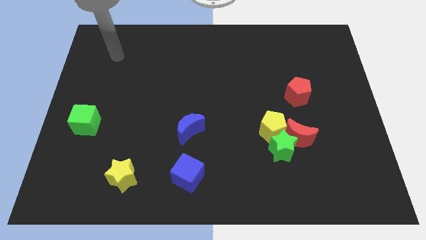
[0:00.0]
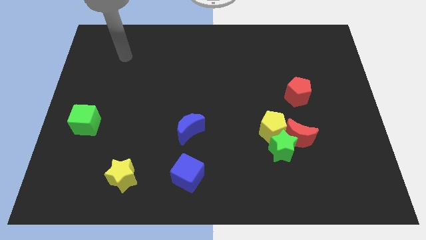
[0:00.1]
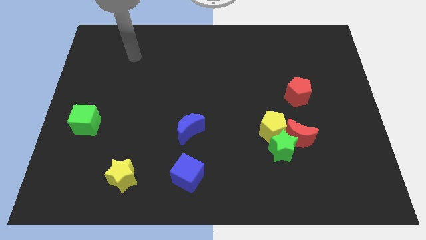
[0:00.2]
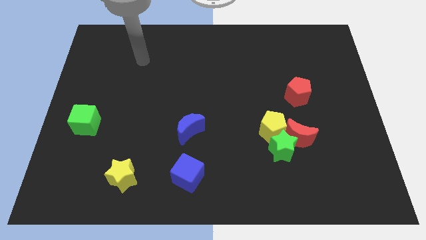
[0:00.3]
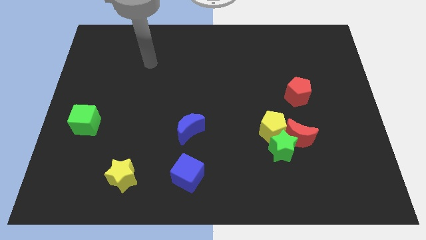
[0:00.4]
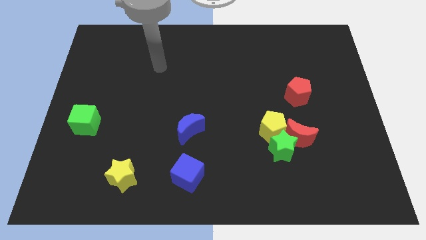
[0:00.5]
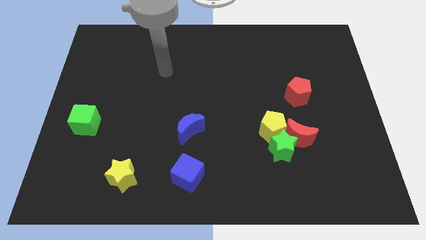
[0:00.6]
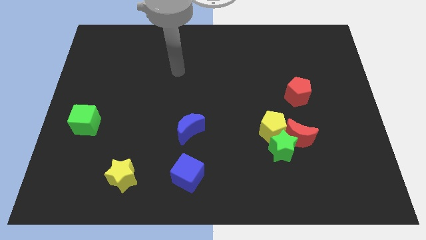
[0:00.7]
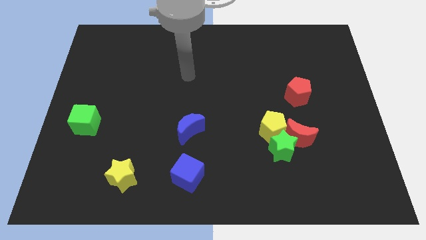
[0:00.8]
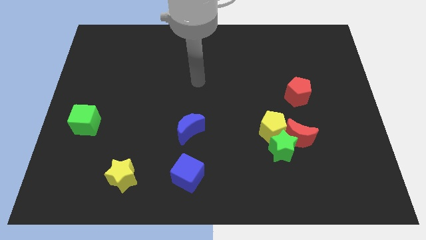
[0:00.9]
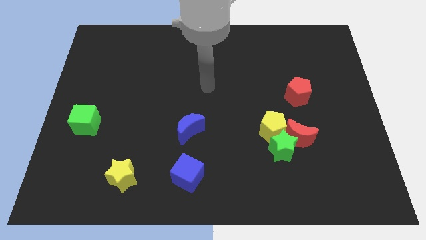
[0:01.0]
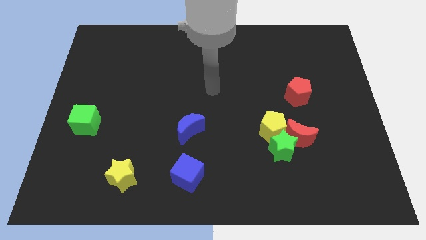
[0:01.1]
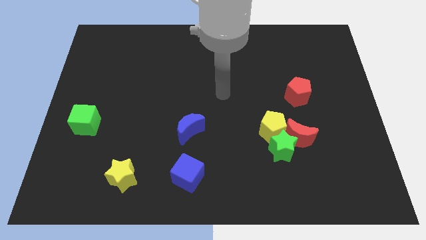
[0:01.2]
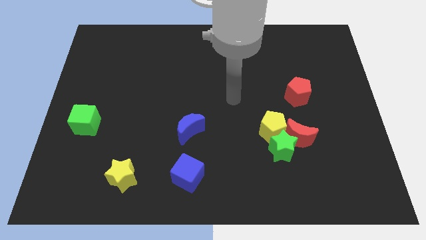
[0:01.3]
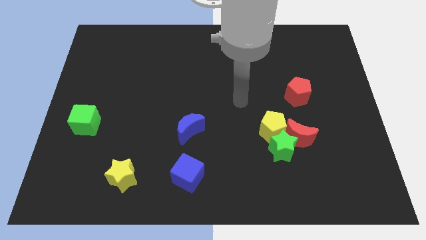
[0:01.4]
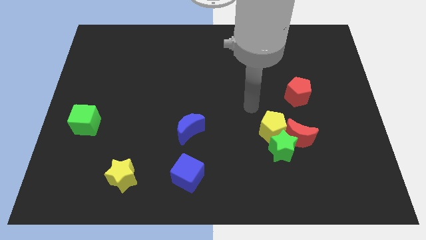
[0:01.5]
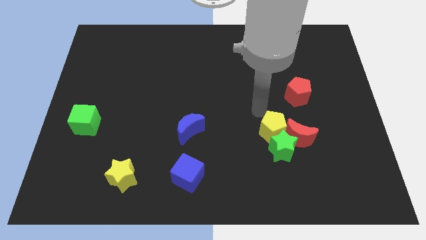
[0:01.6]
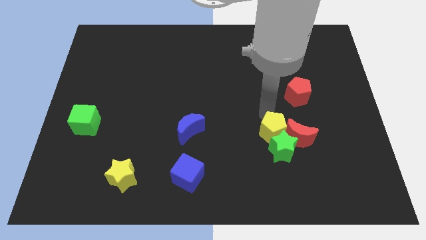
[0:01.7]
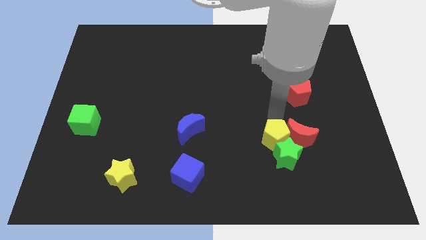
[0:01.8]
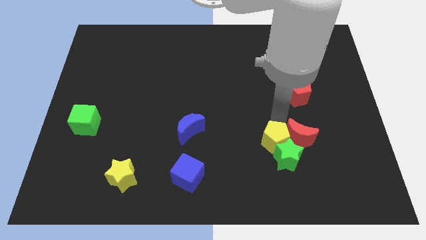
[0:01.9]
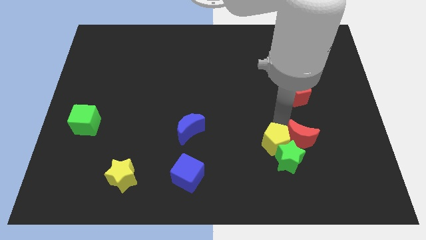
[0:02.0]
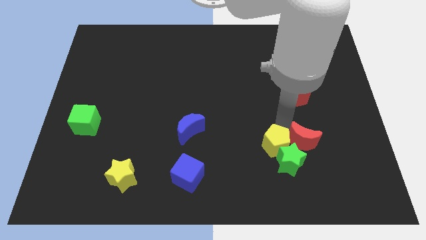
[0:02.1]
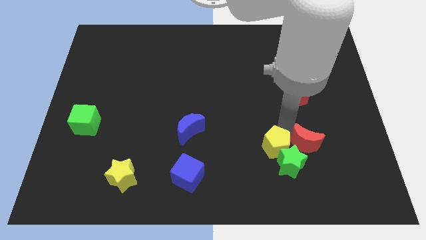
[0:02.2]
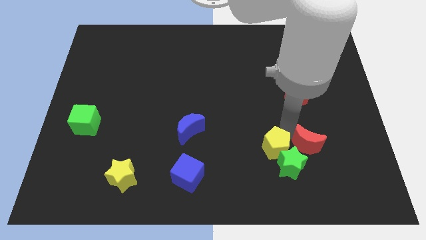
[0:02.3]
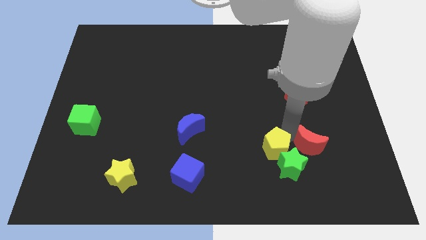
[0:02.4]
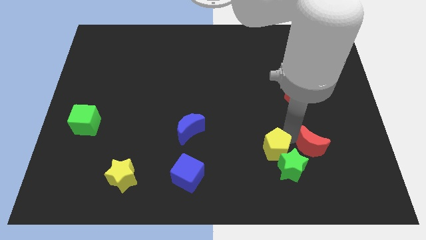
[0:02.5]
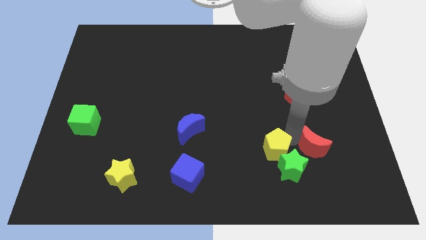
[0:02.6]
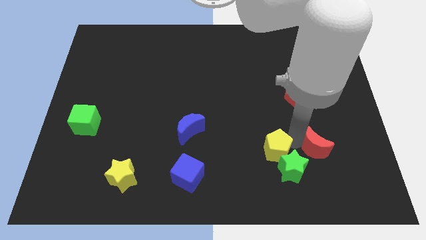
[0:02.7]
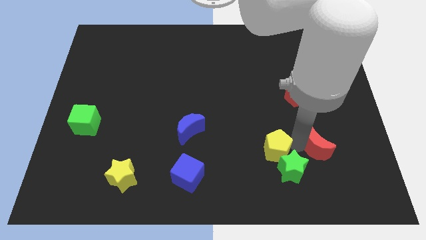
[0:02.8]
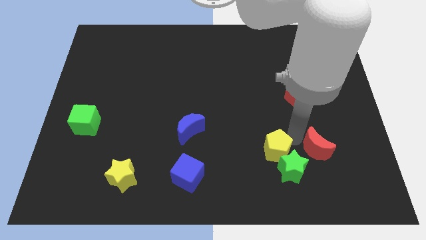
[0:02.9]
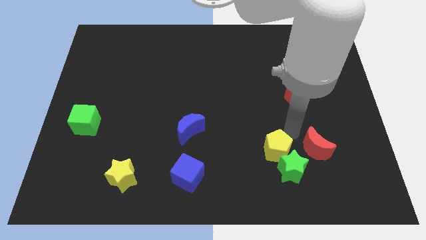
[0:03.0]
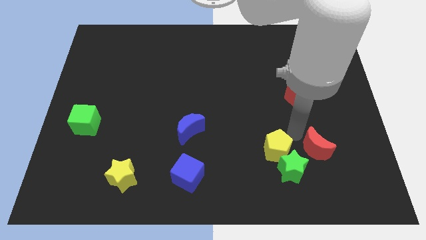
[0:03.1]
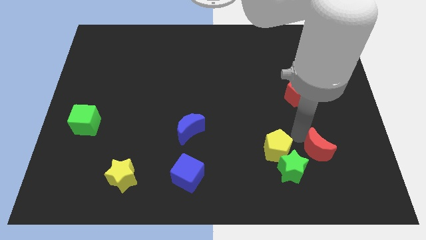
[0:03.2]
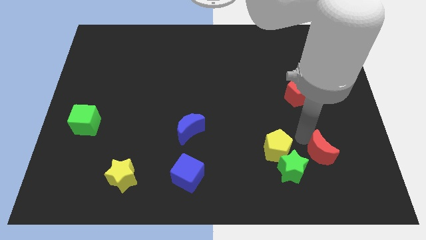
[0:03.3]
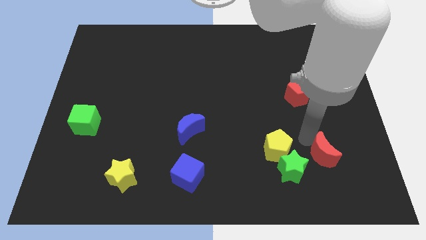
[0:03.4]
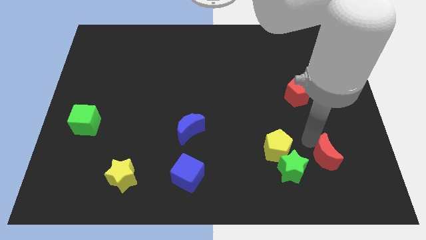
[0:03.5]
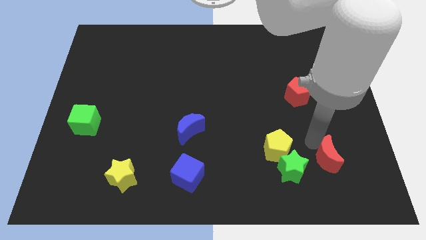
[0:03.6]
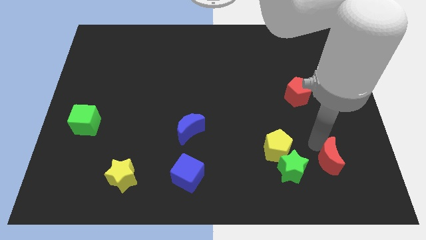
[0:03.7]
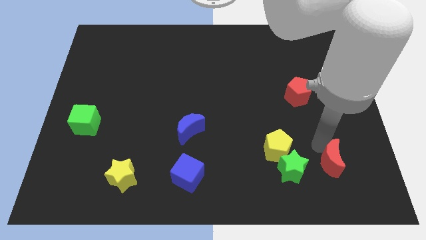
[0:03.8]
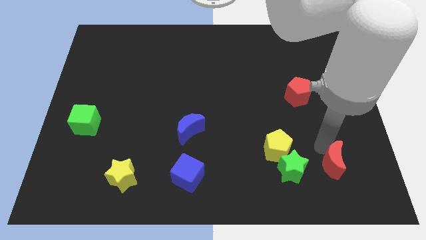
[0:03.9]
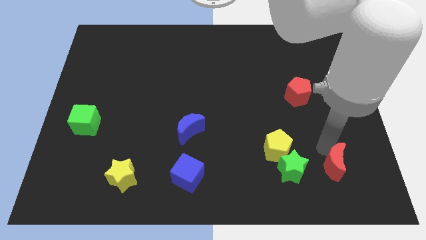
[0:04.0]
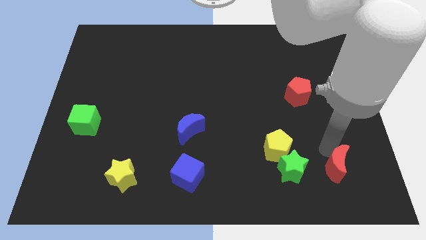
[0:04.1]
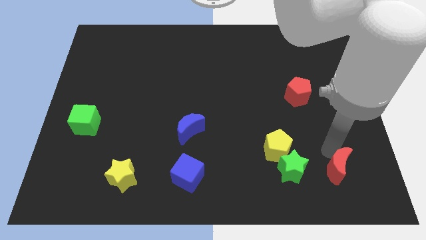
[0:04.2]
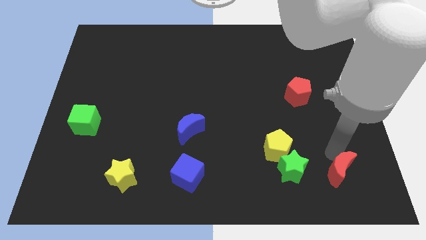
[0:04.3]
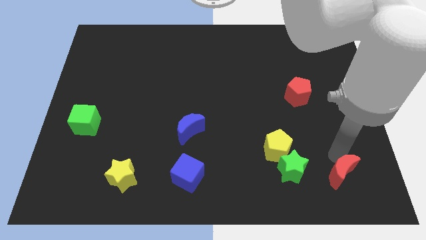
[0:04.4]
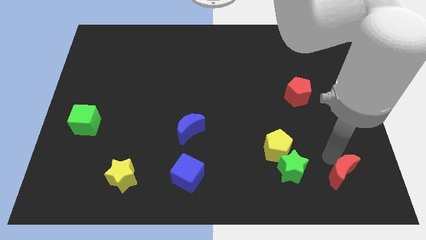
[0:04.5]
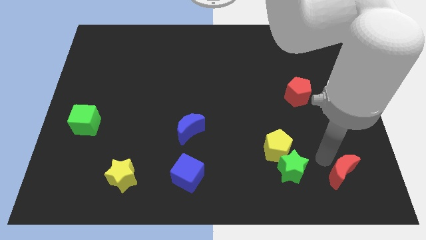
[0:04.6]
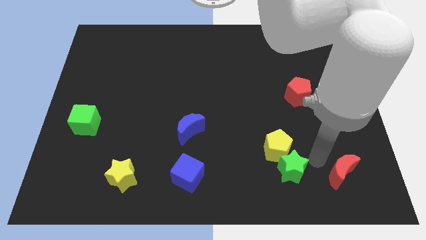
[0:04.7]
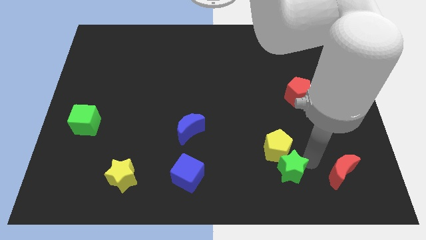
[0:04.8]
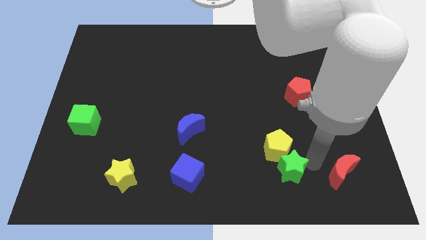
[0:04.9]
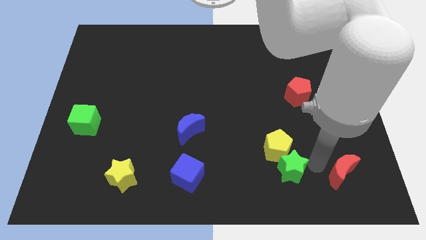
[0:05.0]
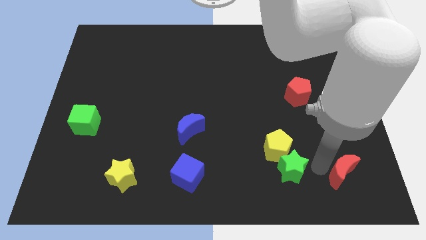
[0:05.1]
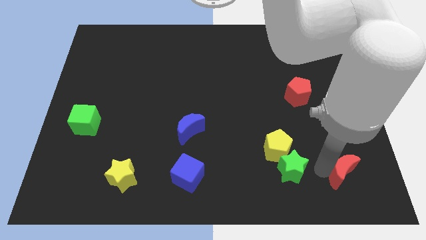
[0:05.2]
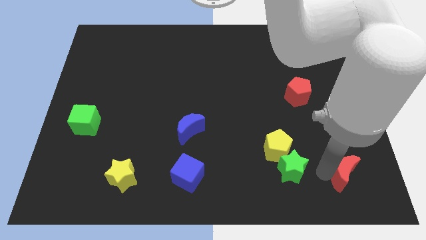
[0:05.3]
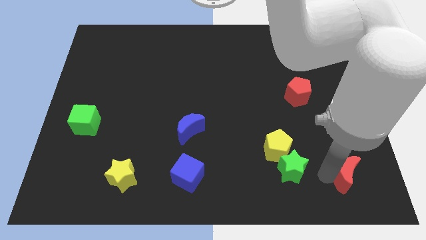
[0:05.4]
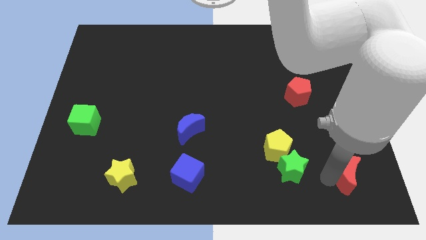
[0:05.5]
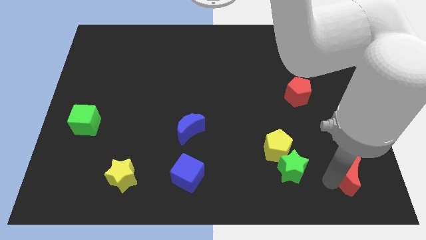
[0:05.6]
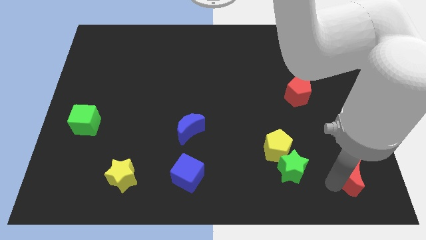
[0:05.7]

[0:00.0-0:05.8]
slide the red moon to the lower right corner

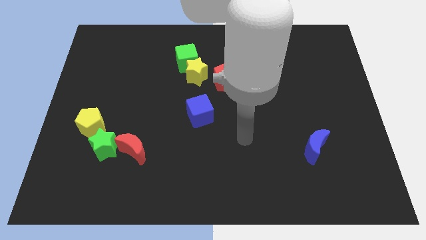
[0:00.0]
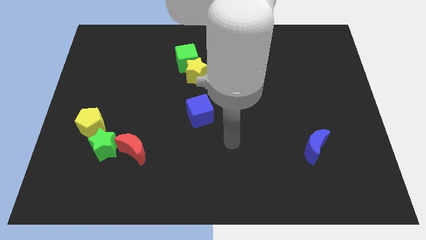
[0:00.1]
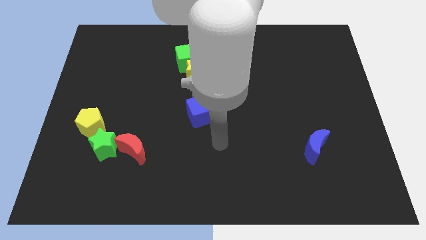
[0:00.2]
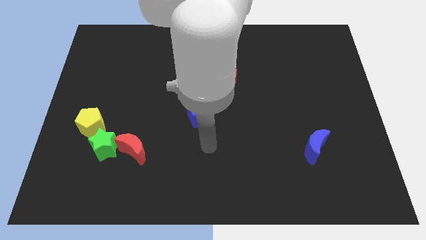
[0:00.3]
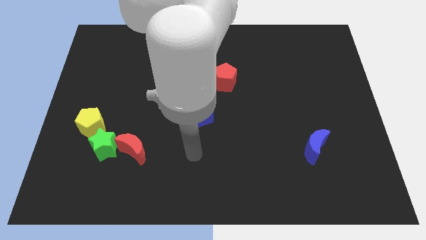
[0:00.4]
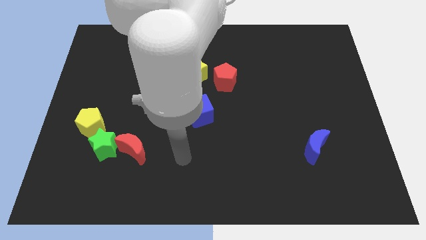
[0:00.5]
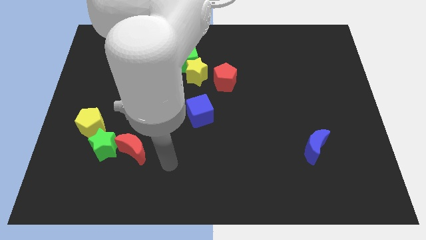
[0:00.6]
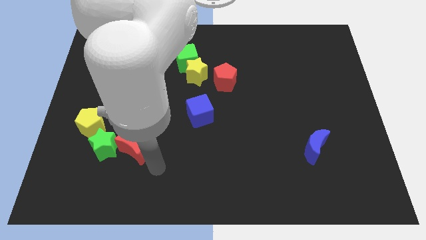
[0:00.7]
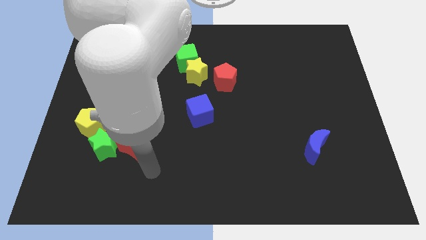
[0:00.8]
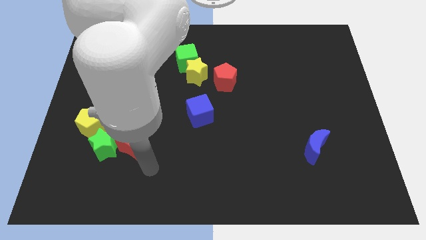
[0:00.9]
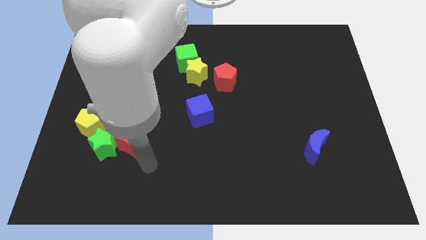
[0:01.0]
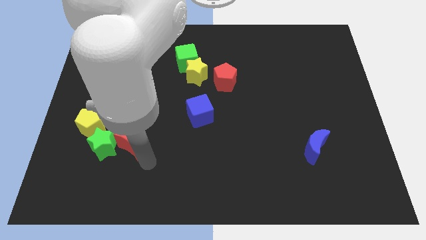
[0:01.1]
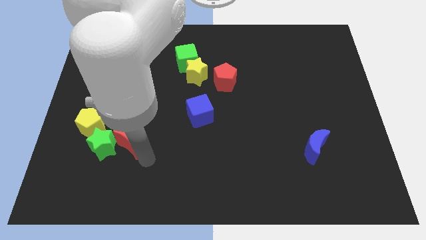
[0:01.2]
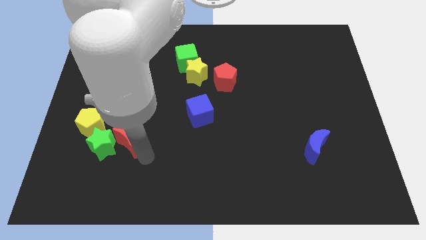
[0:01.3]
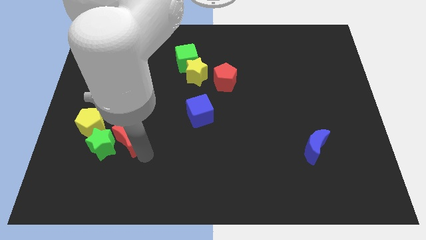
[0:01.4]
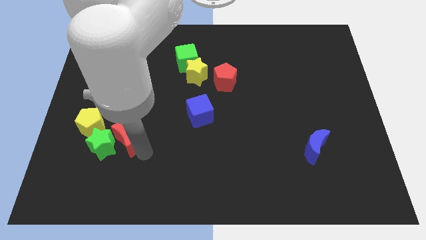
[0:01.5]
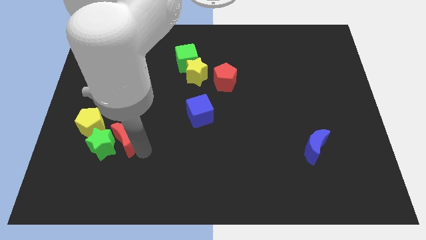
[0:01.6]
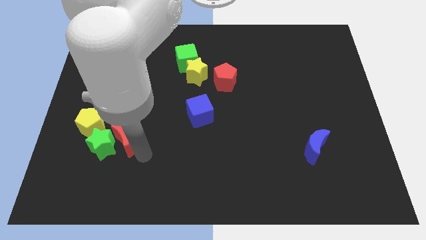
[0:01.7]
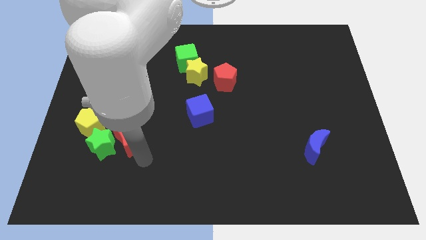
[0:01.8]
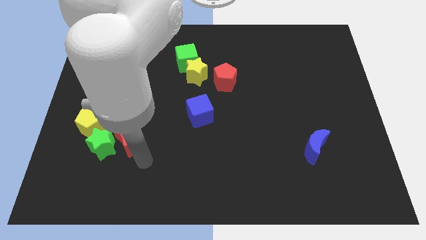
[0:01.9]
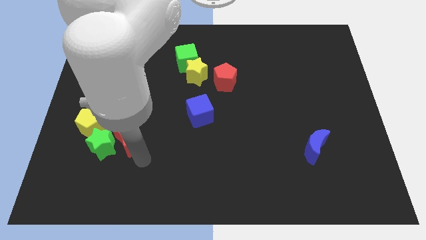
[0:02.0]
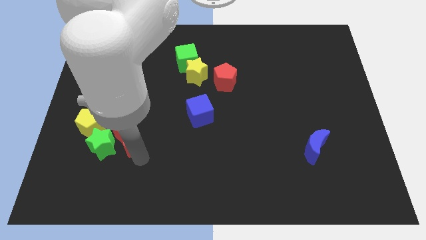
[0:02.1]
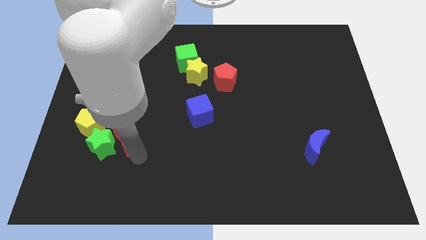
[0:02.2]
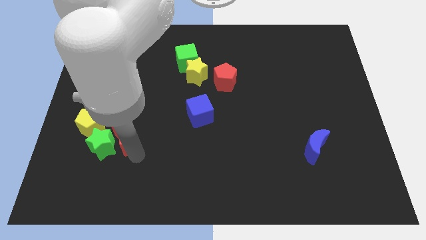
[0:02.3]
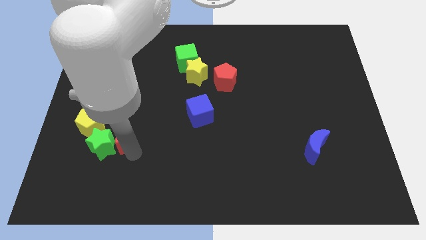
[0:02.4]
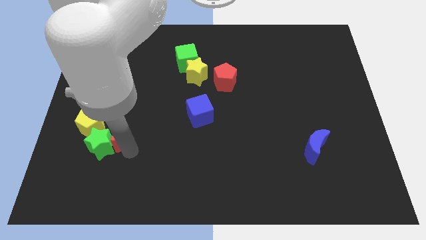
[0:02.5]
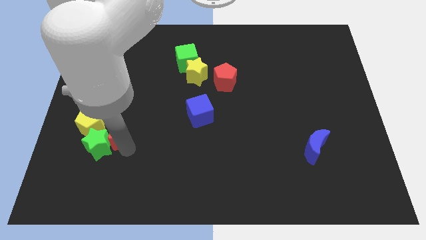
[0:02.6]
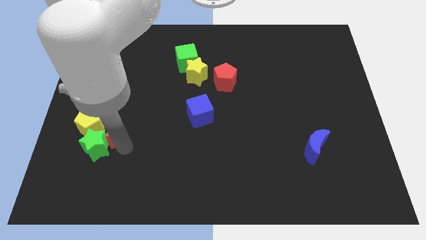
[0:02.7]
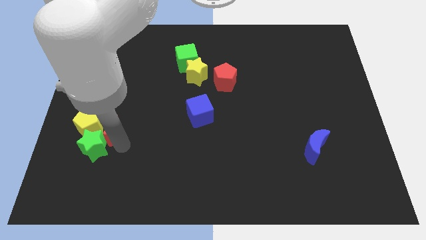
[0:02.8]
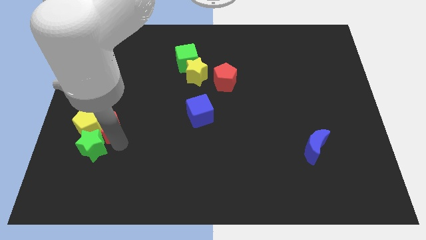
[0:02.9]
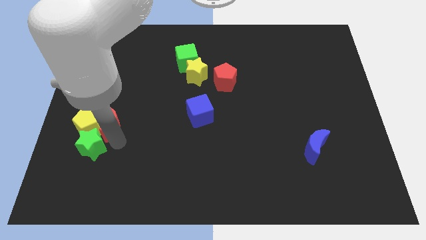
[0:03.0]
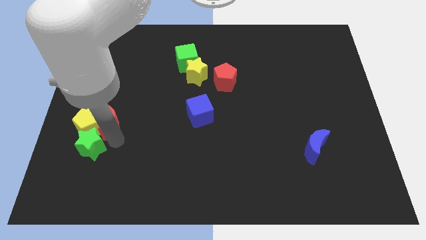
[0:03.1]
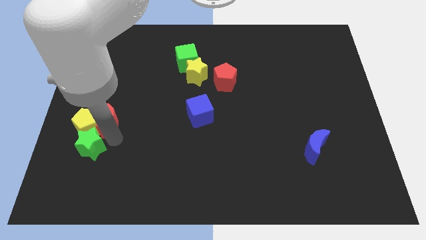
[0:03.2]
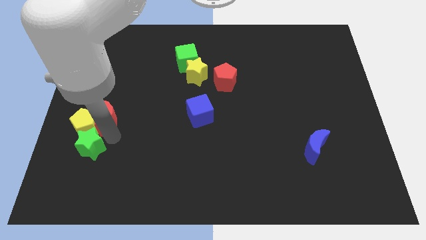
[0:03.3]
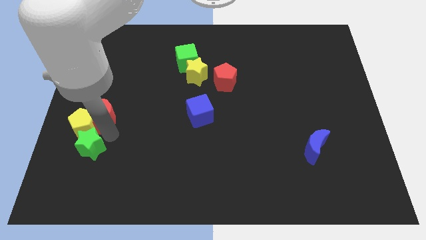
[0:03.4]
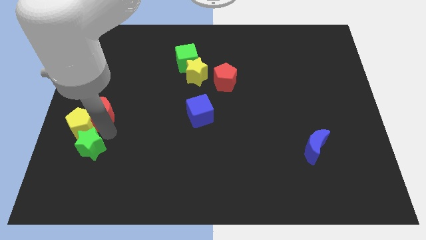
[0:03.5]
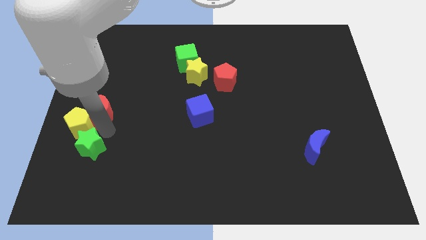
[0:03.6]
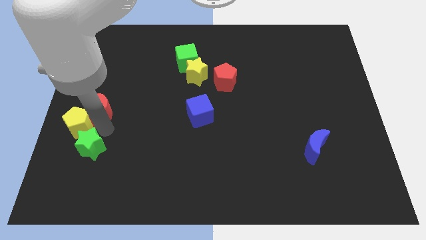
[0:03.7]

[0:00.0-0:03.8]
slide the red moon to the left side of the board
